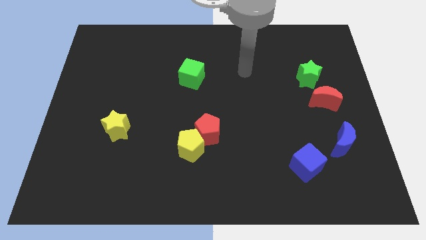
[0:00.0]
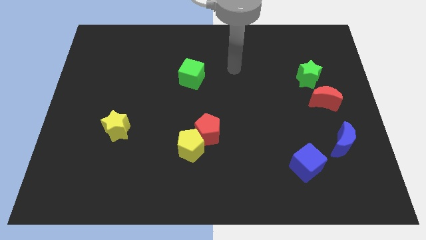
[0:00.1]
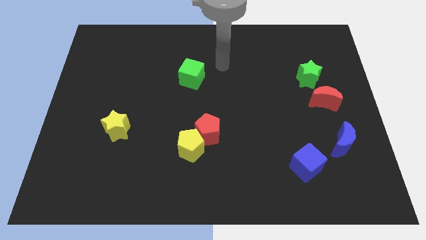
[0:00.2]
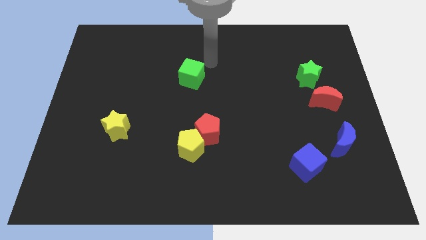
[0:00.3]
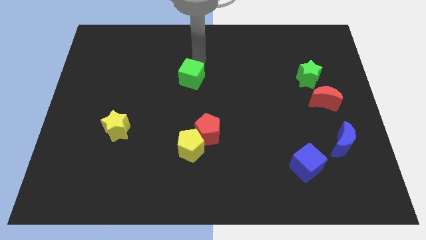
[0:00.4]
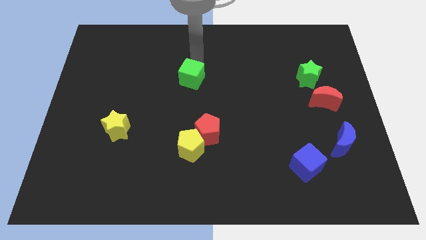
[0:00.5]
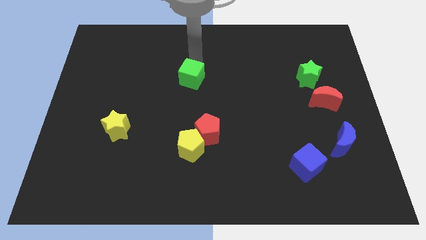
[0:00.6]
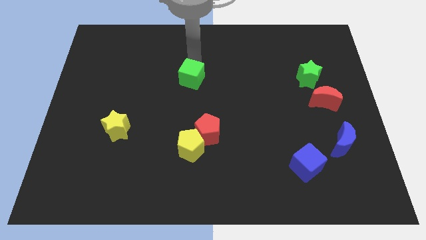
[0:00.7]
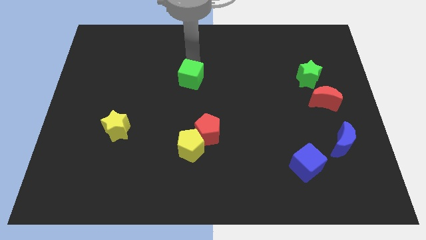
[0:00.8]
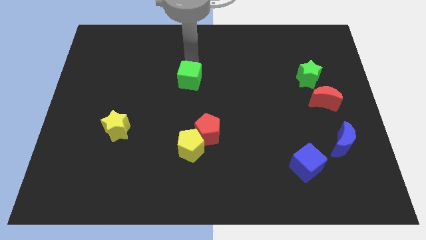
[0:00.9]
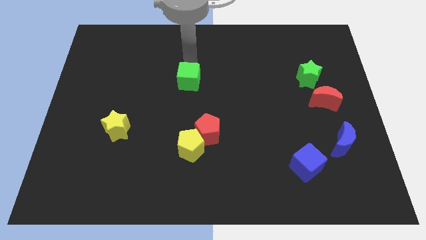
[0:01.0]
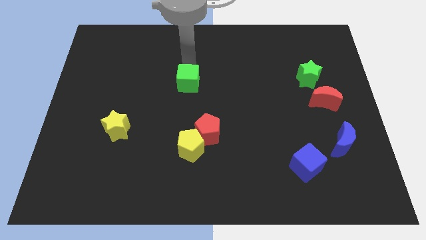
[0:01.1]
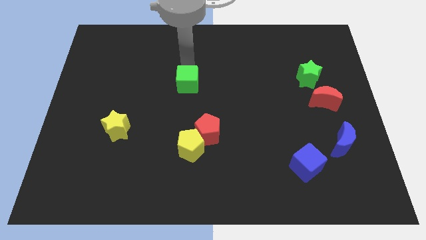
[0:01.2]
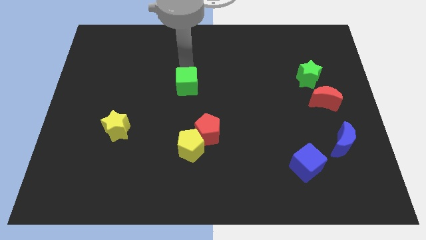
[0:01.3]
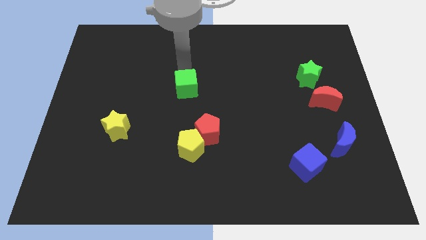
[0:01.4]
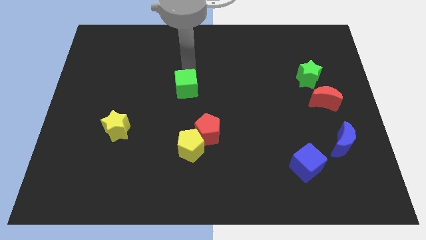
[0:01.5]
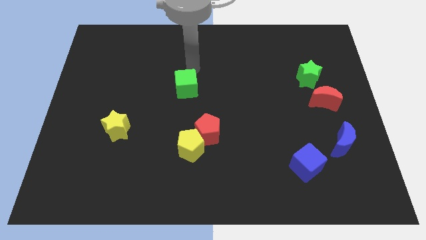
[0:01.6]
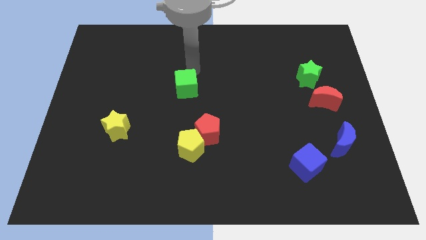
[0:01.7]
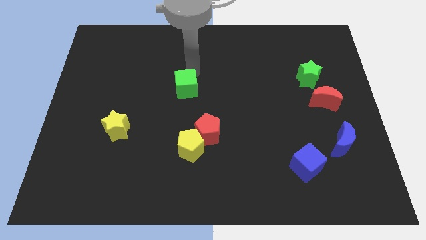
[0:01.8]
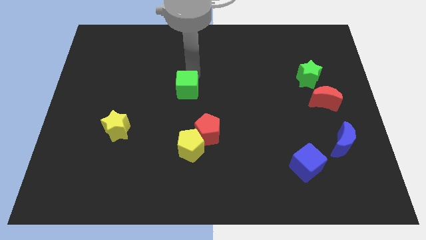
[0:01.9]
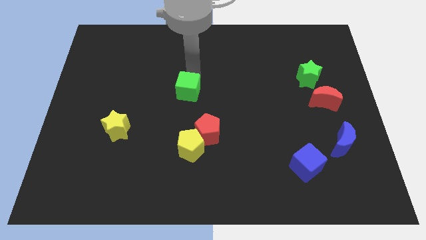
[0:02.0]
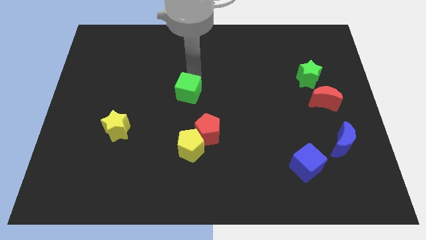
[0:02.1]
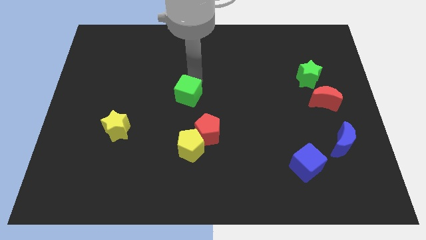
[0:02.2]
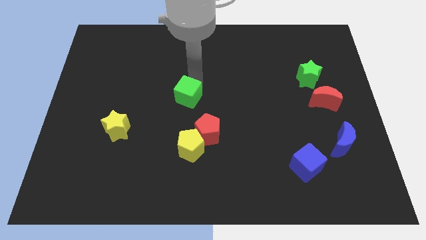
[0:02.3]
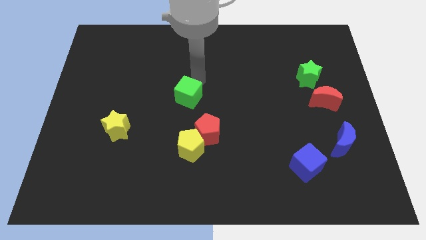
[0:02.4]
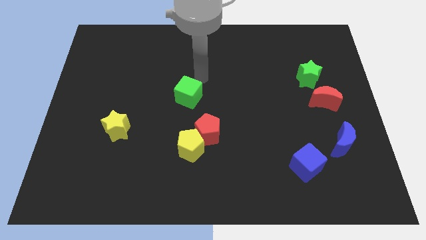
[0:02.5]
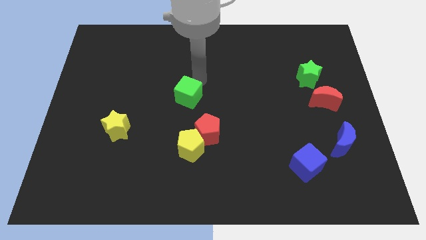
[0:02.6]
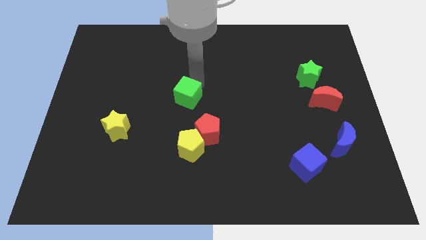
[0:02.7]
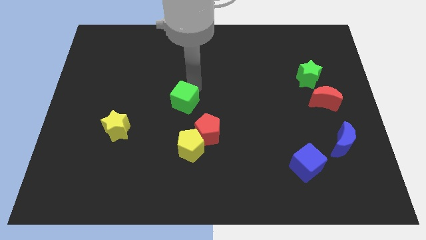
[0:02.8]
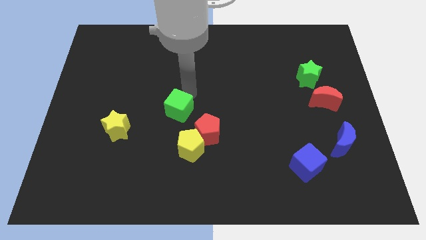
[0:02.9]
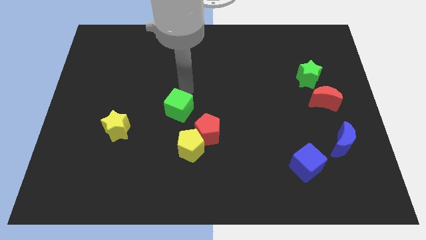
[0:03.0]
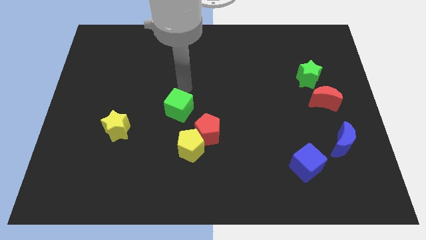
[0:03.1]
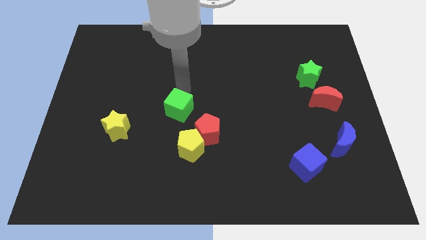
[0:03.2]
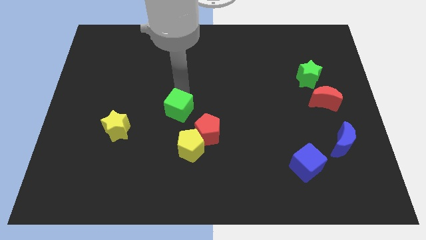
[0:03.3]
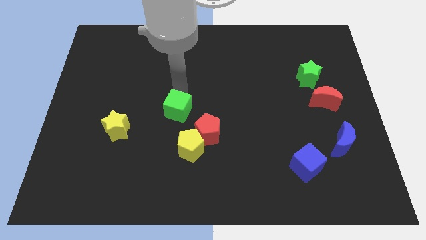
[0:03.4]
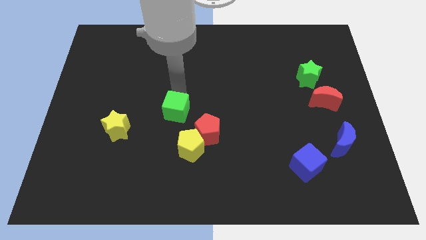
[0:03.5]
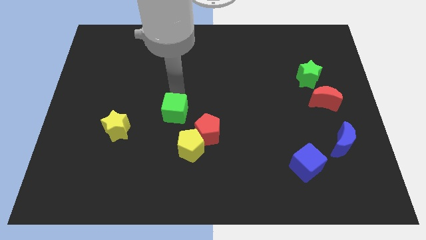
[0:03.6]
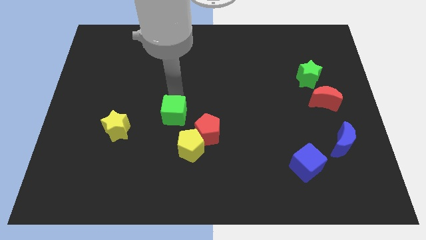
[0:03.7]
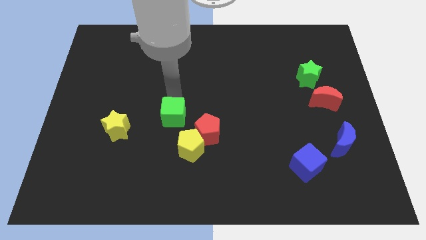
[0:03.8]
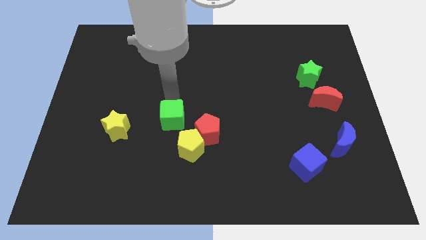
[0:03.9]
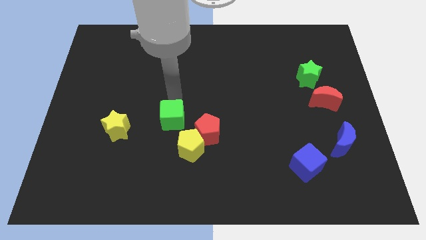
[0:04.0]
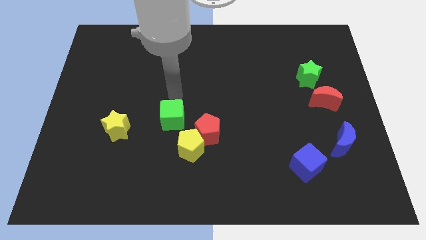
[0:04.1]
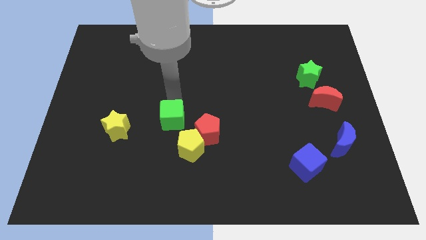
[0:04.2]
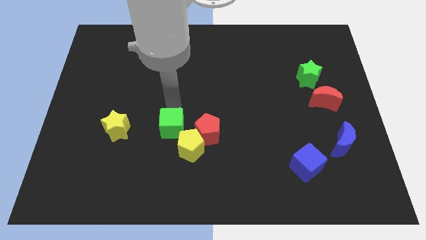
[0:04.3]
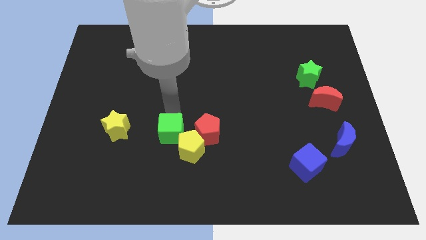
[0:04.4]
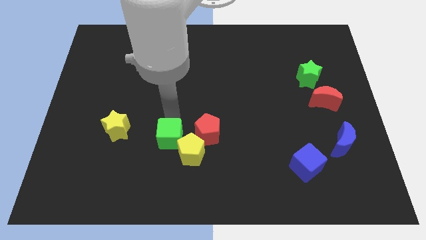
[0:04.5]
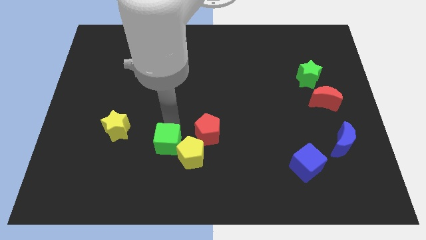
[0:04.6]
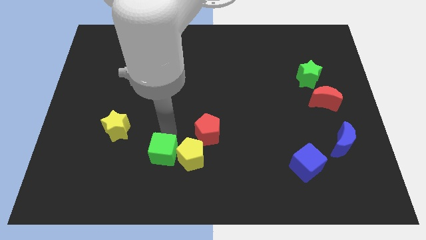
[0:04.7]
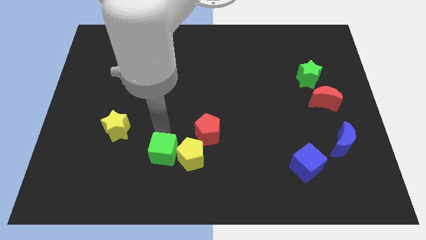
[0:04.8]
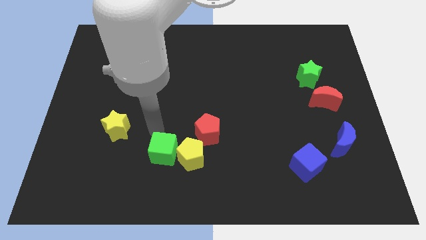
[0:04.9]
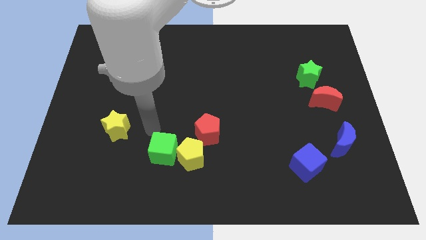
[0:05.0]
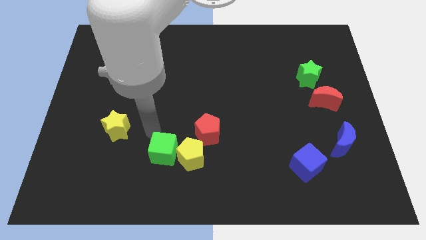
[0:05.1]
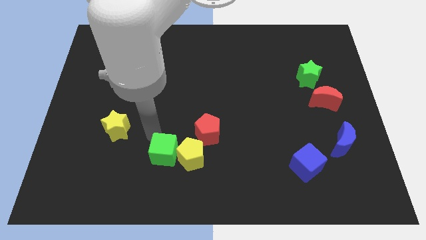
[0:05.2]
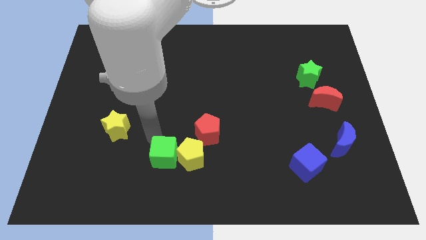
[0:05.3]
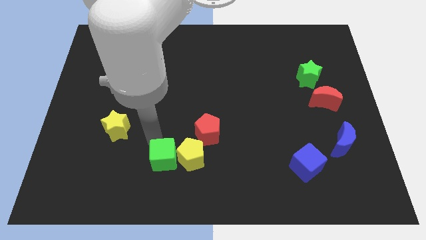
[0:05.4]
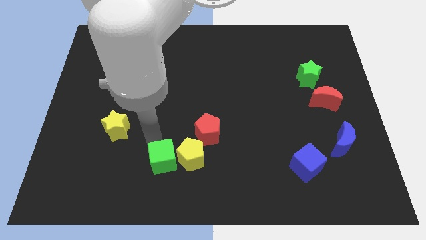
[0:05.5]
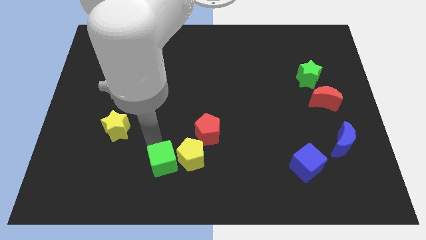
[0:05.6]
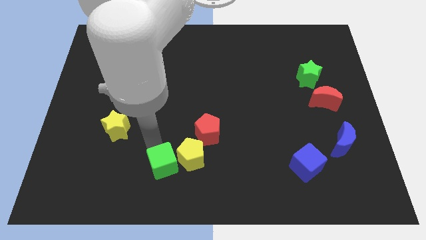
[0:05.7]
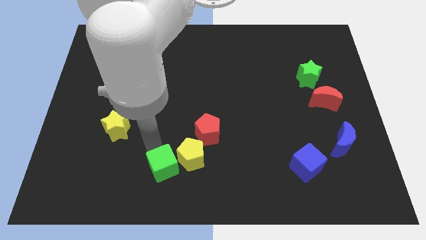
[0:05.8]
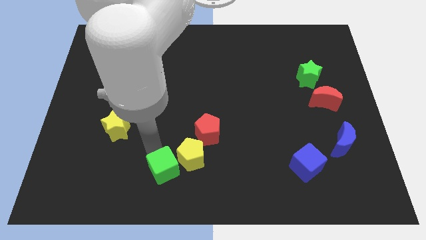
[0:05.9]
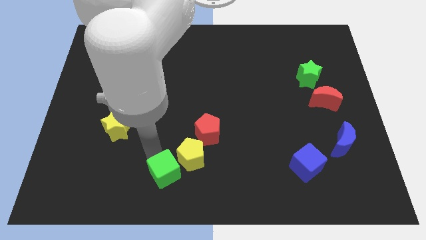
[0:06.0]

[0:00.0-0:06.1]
put the green cube to the bottom side

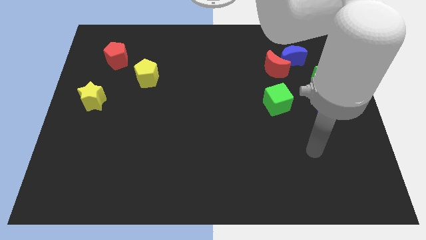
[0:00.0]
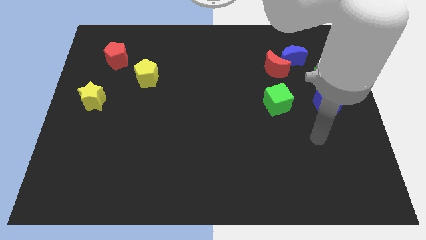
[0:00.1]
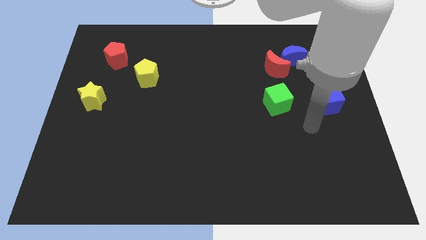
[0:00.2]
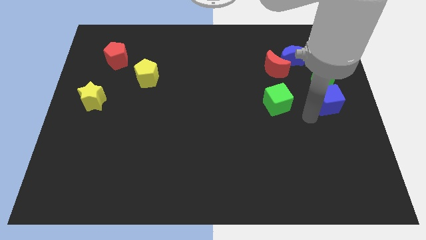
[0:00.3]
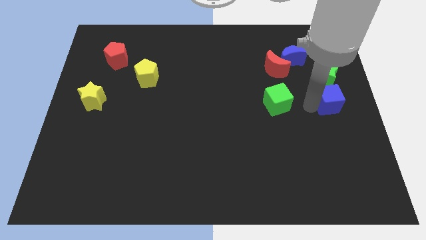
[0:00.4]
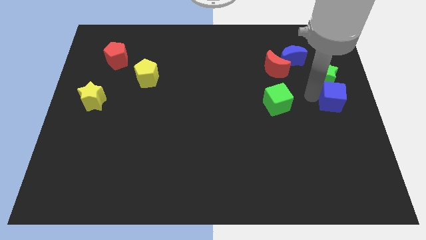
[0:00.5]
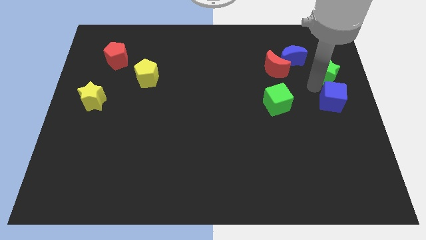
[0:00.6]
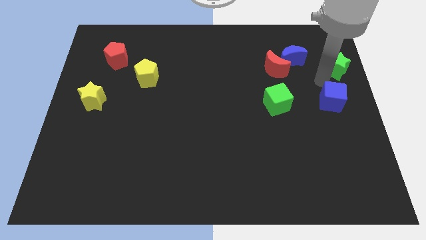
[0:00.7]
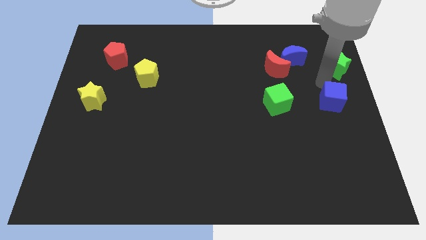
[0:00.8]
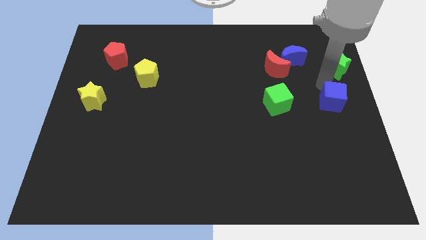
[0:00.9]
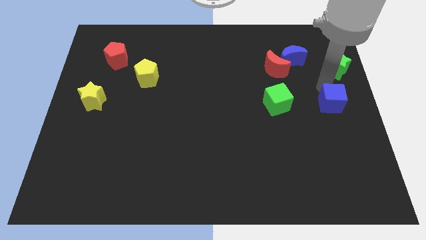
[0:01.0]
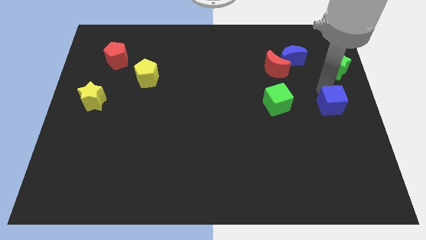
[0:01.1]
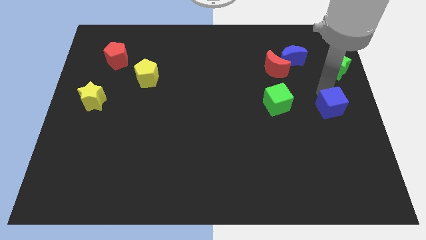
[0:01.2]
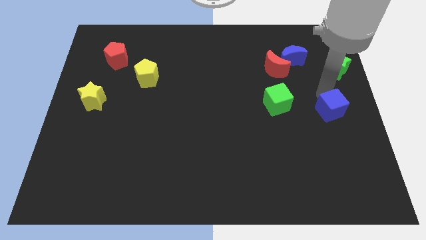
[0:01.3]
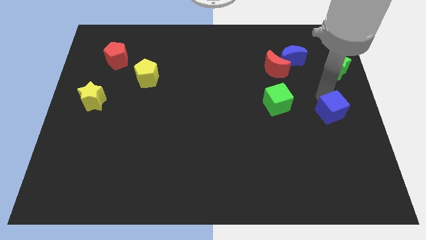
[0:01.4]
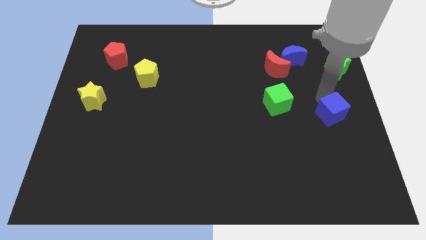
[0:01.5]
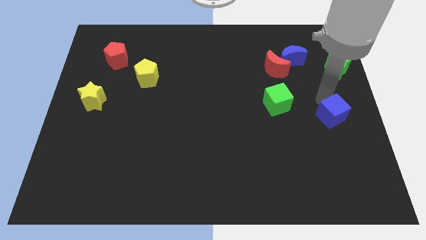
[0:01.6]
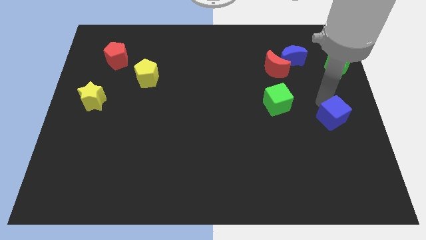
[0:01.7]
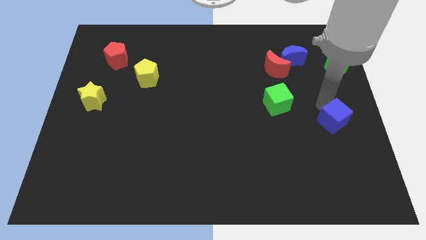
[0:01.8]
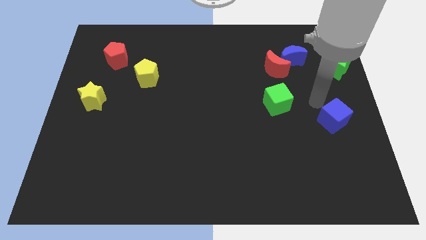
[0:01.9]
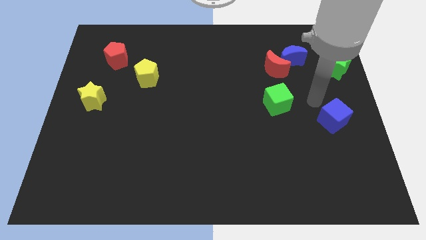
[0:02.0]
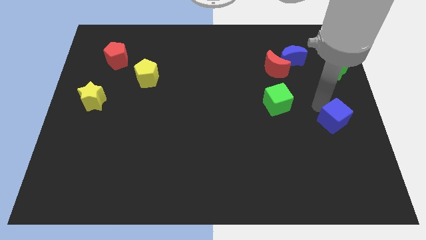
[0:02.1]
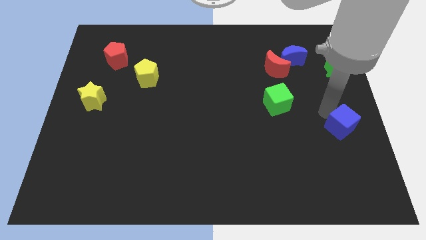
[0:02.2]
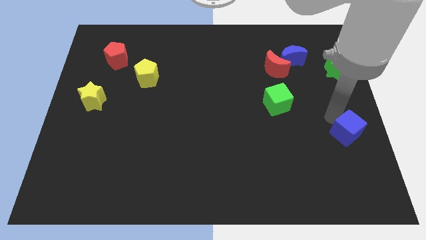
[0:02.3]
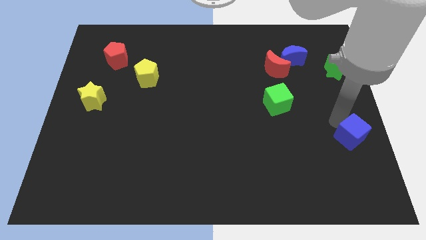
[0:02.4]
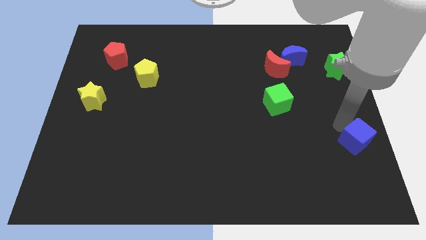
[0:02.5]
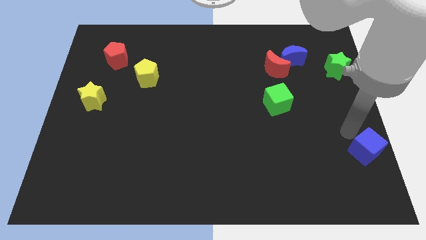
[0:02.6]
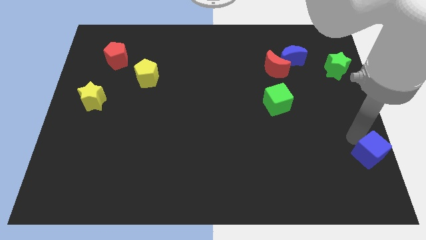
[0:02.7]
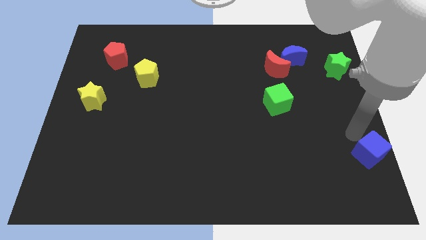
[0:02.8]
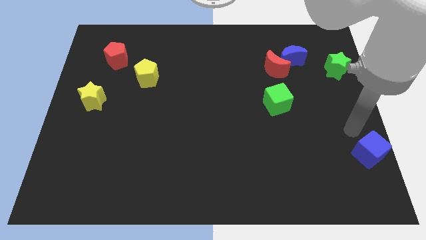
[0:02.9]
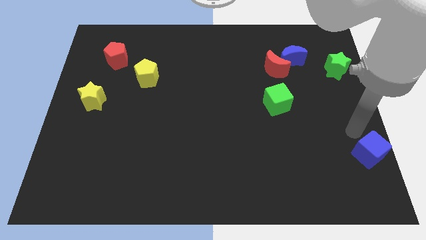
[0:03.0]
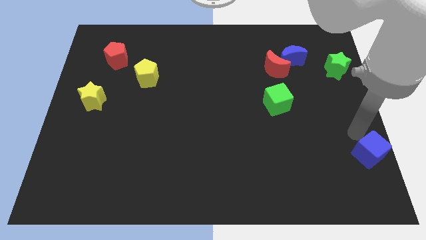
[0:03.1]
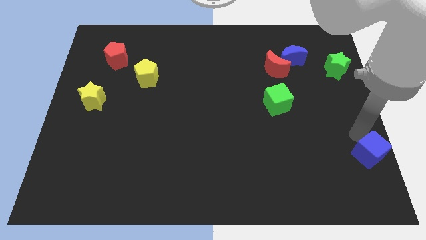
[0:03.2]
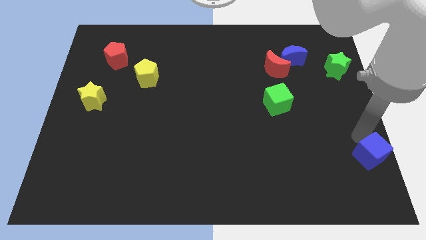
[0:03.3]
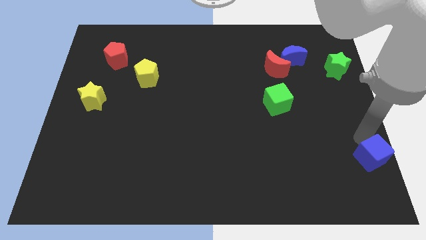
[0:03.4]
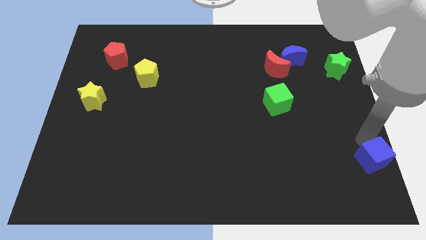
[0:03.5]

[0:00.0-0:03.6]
put the blue cube to the bottom right of the board
